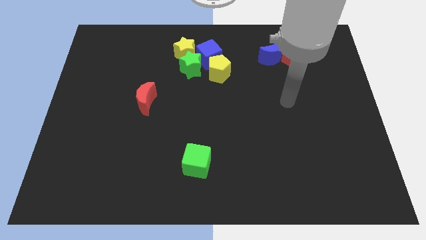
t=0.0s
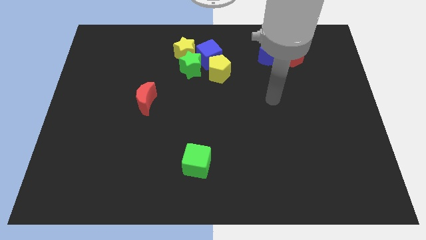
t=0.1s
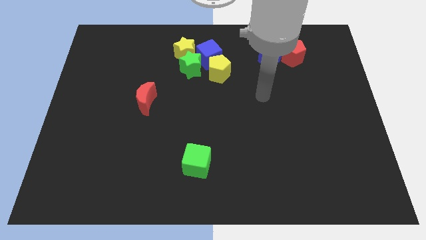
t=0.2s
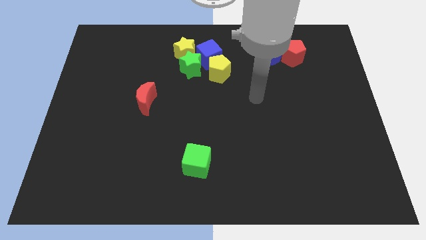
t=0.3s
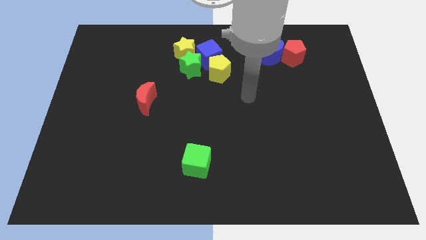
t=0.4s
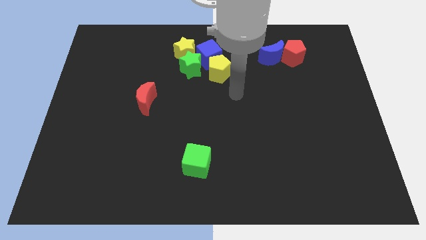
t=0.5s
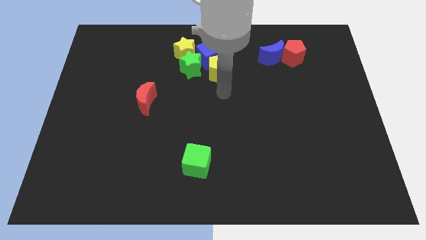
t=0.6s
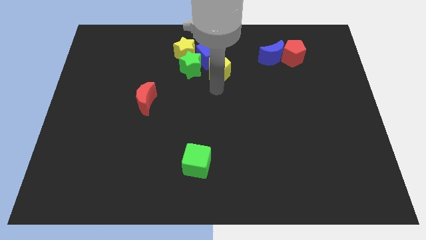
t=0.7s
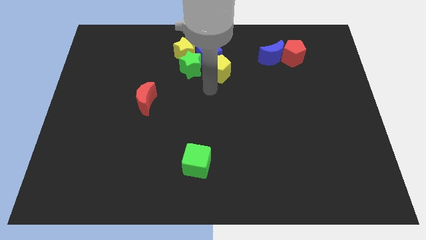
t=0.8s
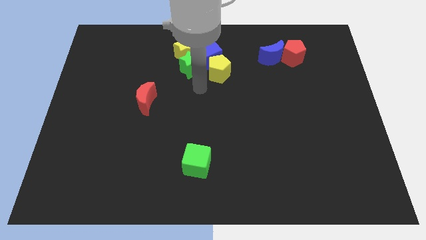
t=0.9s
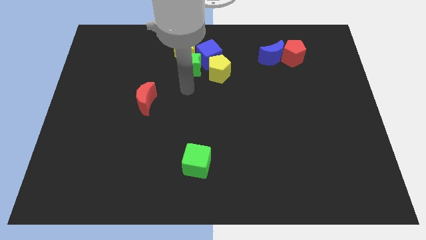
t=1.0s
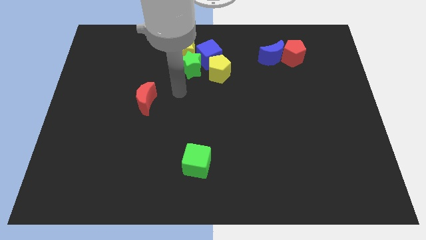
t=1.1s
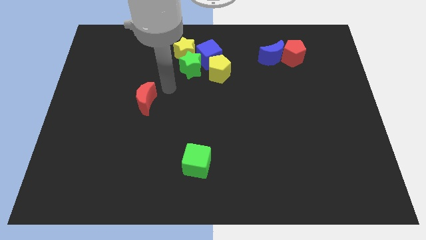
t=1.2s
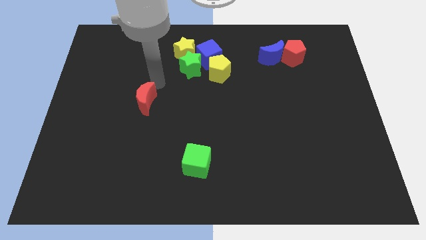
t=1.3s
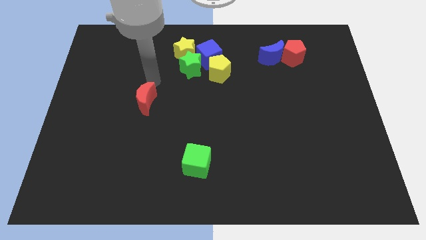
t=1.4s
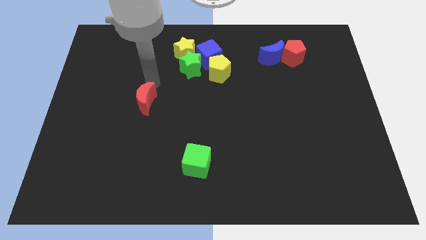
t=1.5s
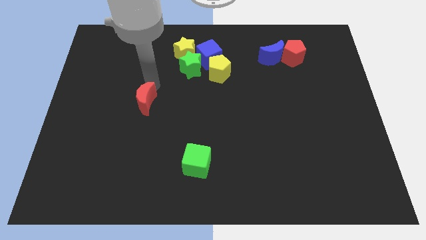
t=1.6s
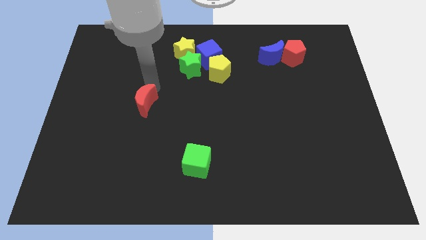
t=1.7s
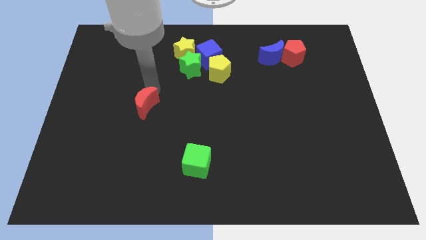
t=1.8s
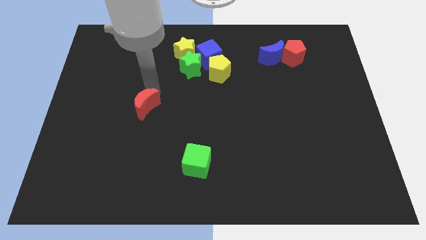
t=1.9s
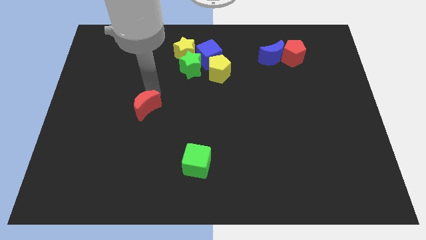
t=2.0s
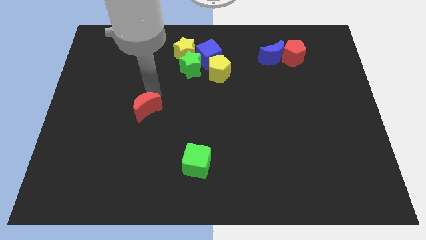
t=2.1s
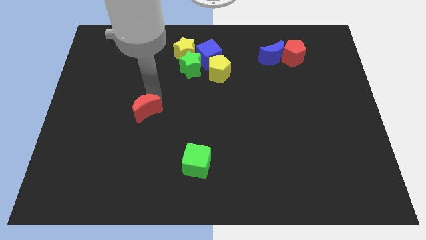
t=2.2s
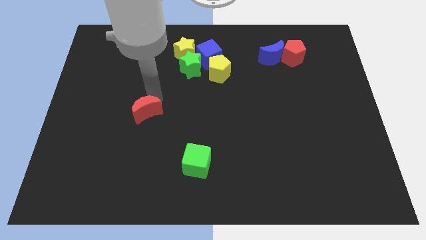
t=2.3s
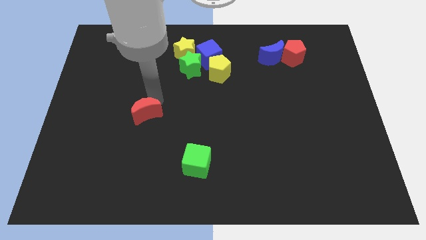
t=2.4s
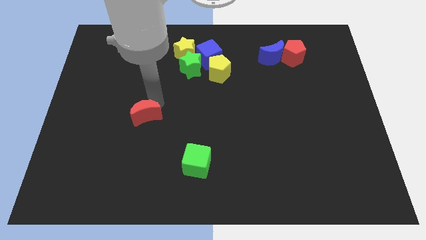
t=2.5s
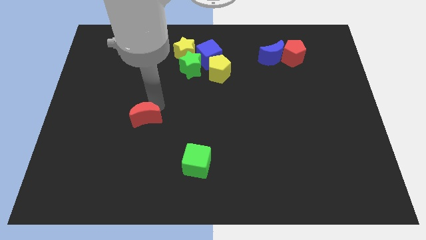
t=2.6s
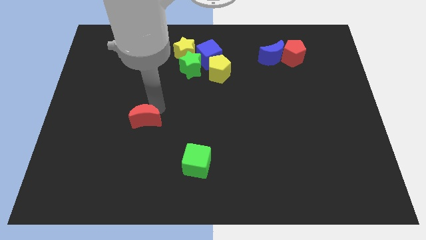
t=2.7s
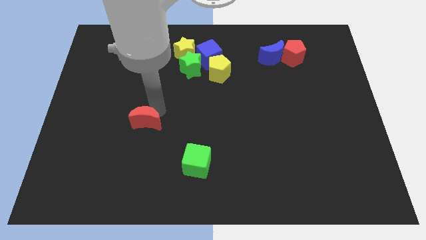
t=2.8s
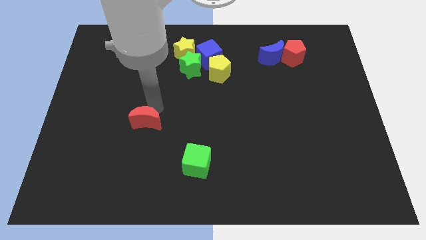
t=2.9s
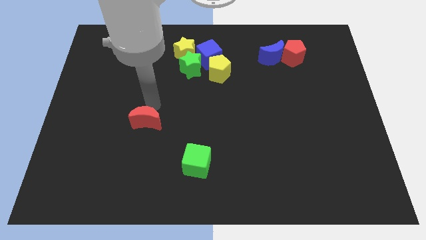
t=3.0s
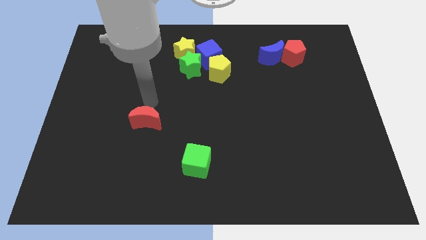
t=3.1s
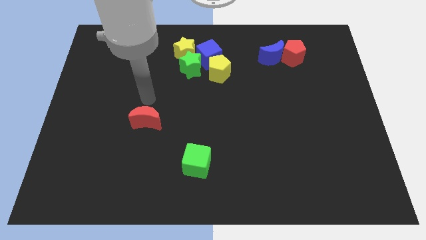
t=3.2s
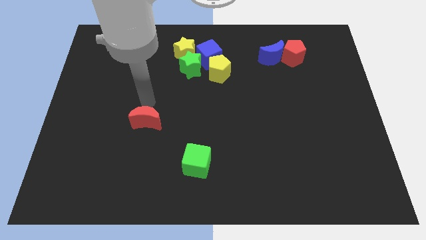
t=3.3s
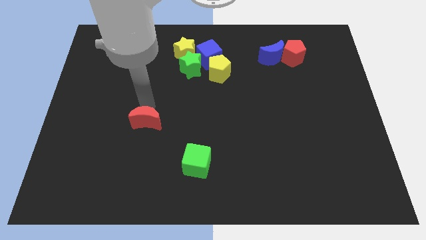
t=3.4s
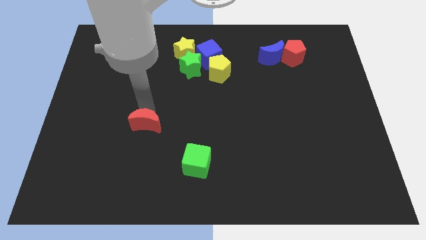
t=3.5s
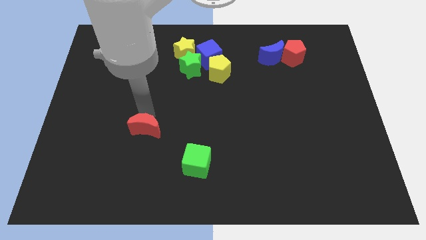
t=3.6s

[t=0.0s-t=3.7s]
slightly push the red moon downwards

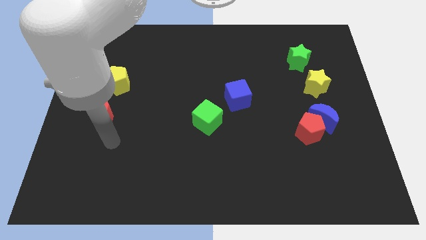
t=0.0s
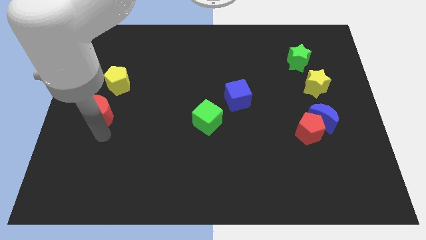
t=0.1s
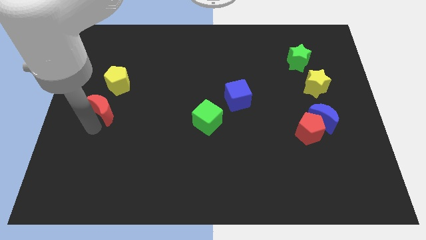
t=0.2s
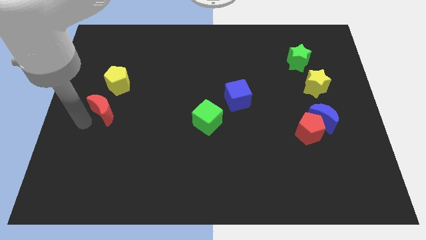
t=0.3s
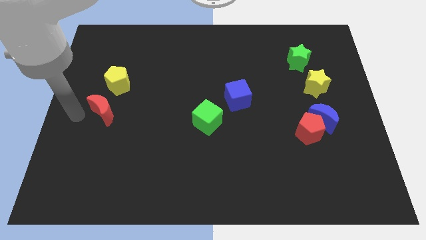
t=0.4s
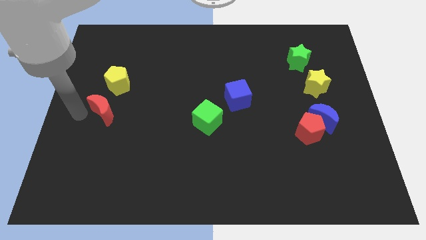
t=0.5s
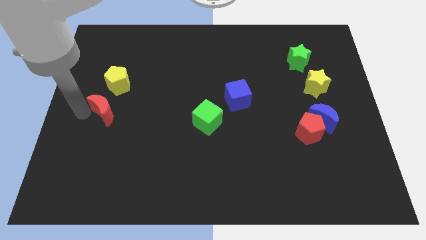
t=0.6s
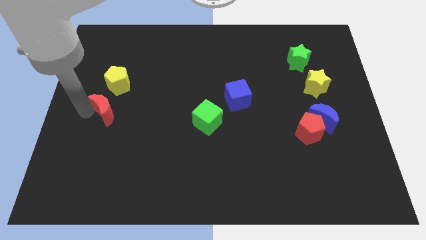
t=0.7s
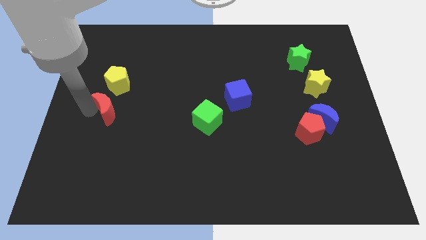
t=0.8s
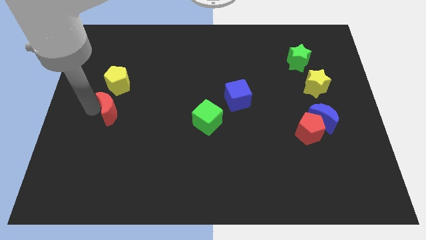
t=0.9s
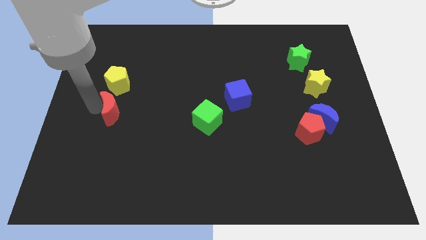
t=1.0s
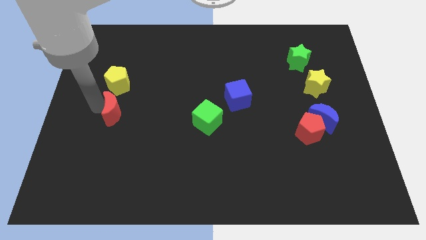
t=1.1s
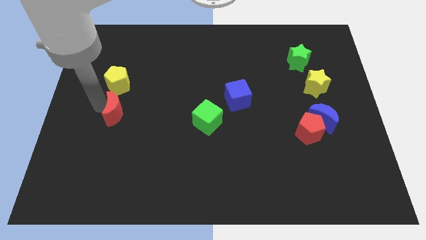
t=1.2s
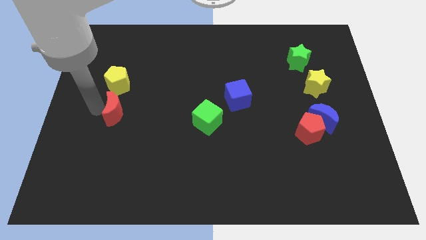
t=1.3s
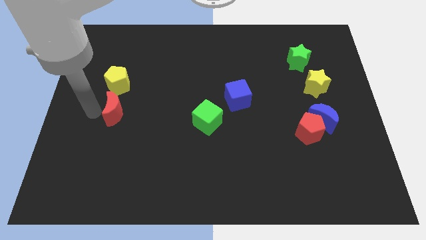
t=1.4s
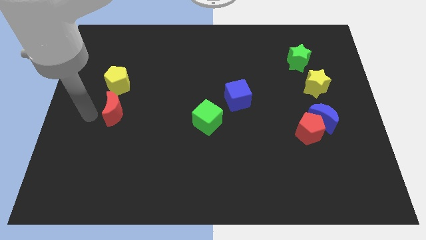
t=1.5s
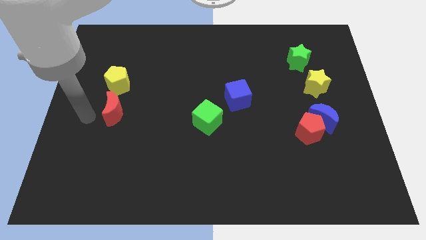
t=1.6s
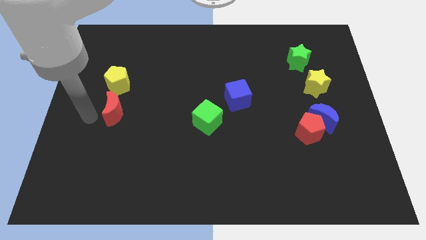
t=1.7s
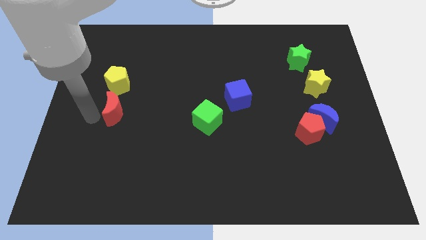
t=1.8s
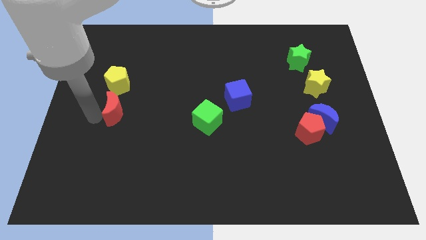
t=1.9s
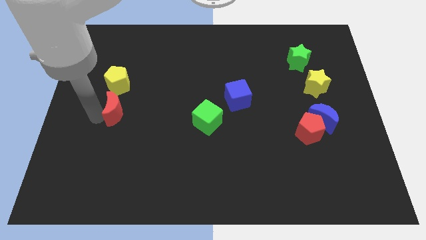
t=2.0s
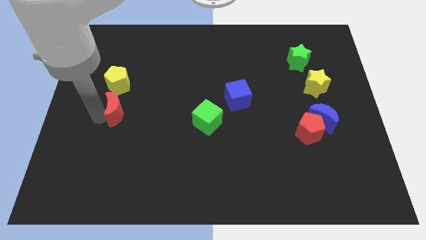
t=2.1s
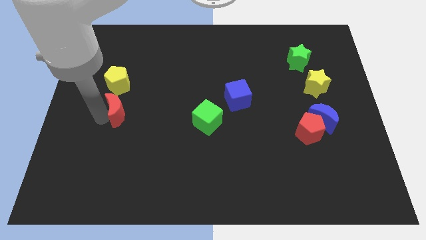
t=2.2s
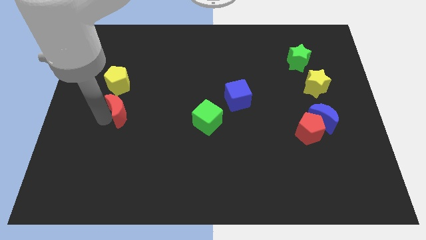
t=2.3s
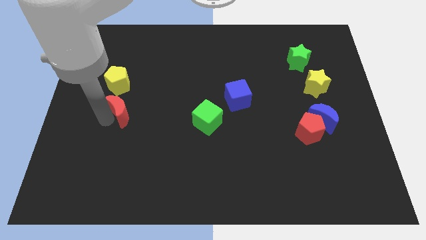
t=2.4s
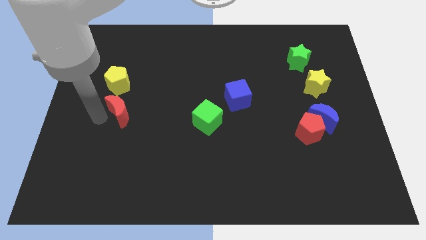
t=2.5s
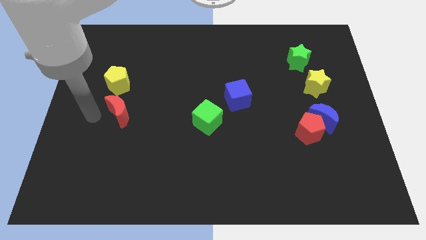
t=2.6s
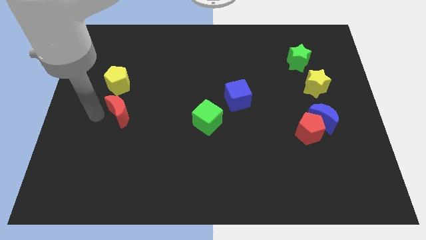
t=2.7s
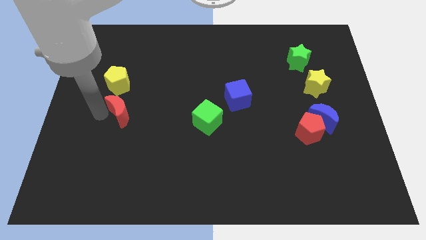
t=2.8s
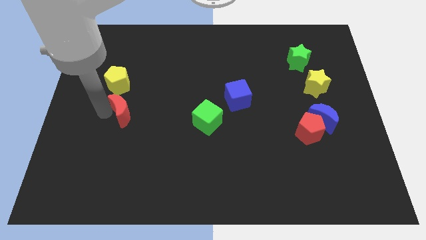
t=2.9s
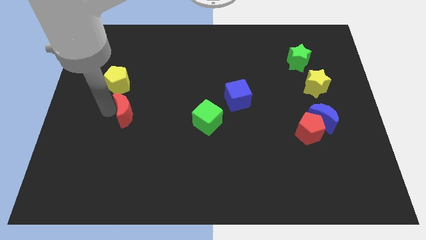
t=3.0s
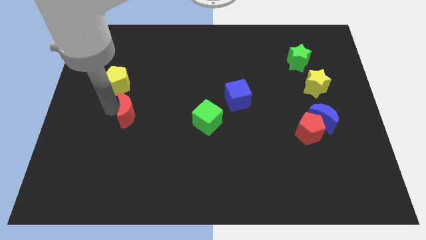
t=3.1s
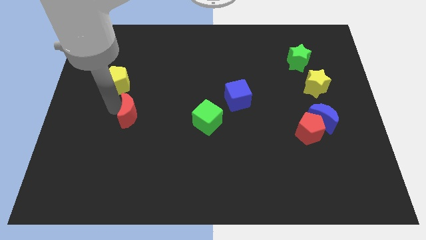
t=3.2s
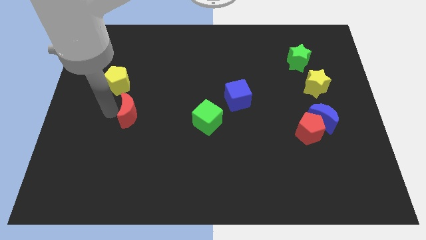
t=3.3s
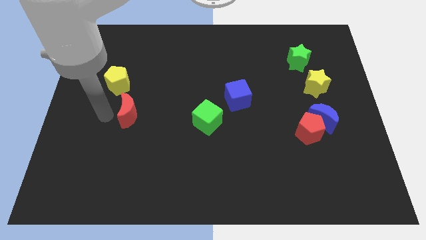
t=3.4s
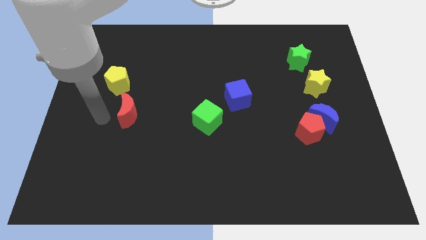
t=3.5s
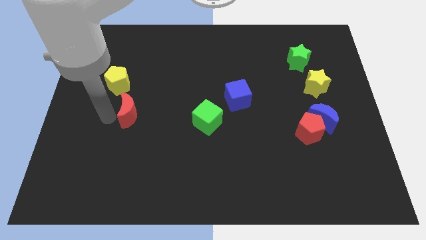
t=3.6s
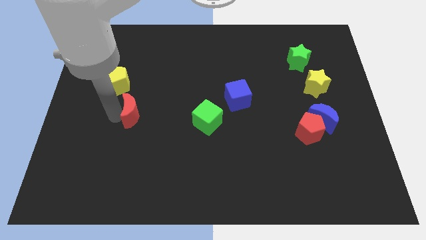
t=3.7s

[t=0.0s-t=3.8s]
move the red moon right somewhat

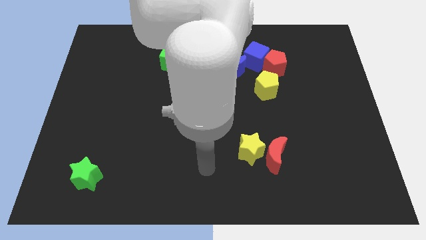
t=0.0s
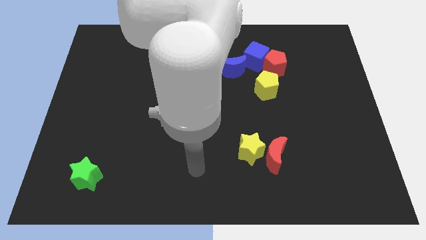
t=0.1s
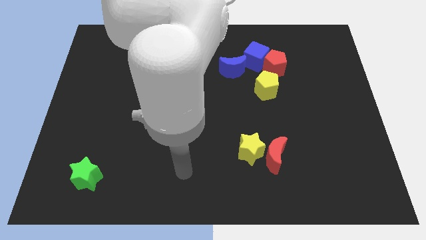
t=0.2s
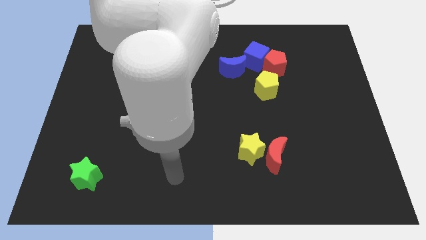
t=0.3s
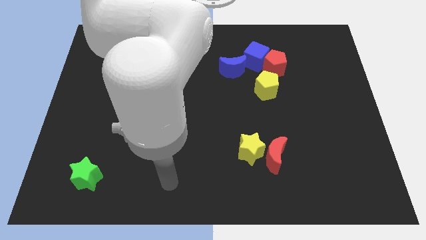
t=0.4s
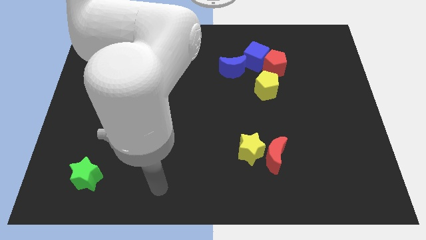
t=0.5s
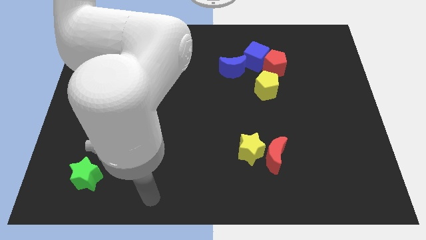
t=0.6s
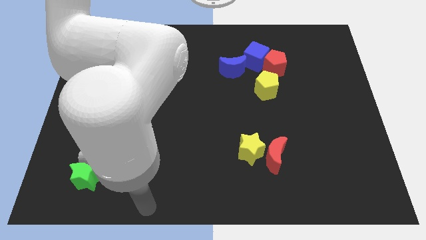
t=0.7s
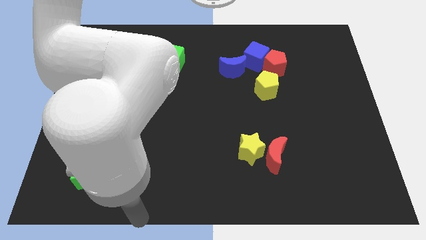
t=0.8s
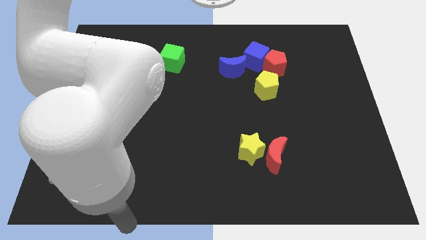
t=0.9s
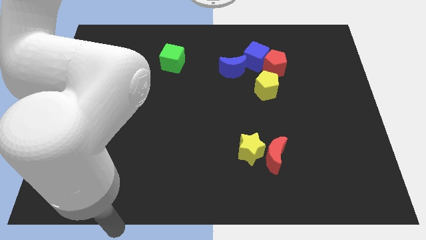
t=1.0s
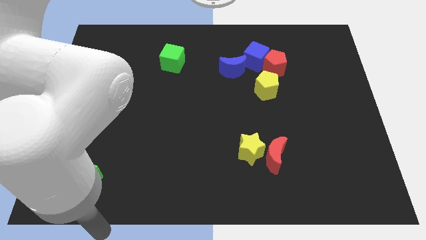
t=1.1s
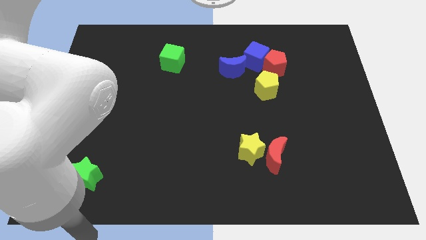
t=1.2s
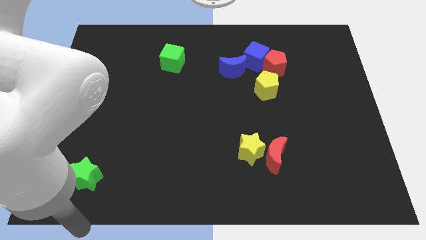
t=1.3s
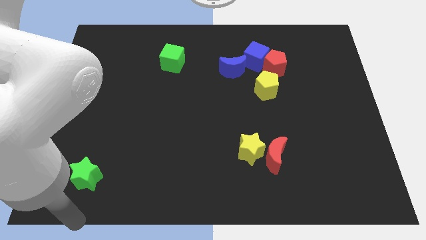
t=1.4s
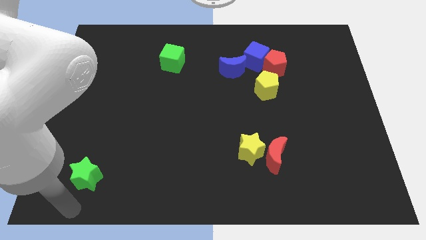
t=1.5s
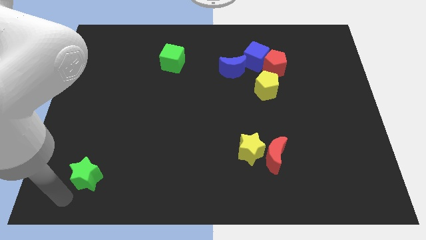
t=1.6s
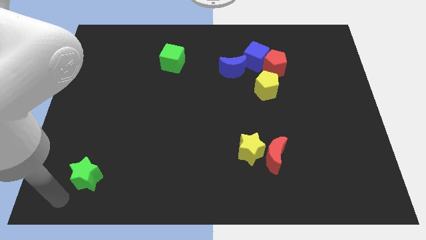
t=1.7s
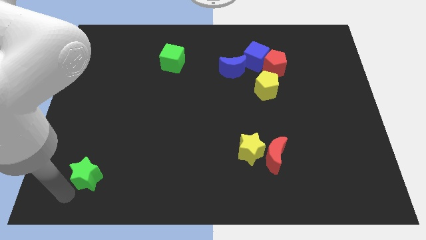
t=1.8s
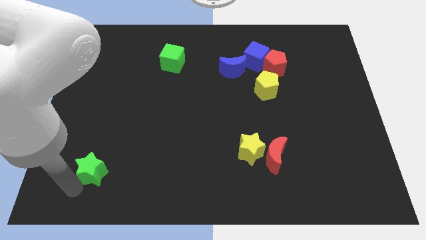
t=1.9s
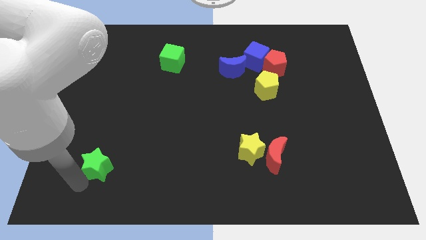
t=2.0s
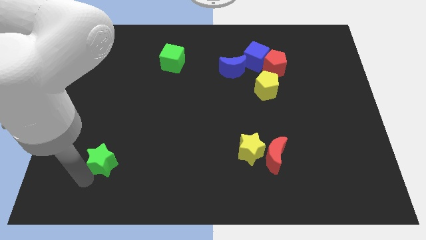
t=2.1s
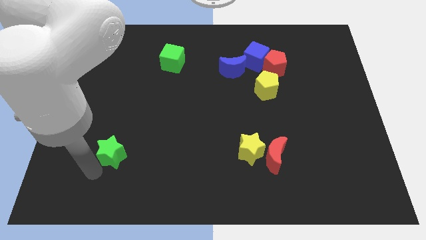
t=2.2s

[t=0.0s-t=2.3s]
move the green star a little bit upwards and right diagonally
